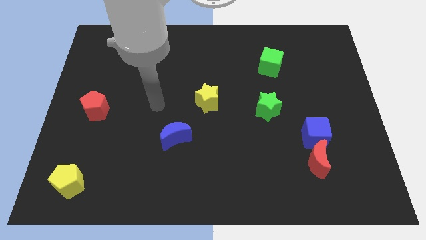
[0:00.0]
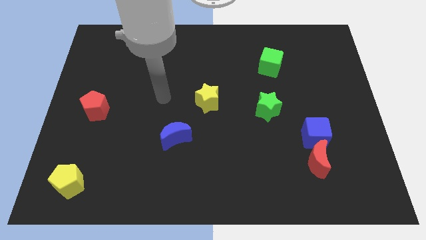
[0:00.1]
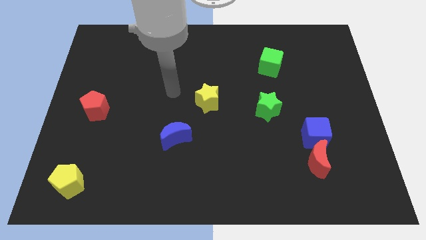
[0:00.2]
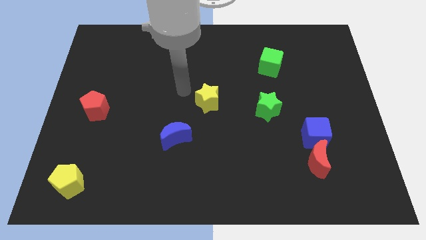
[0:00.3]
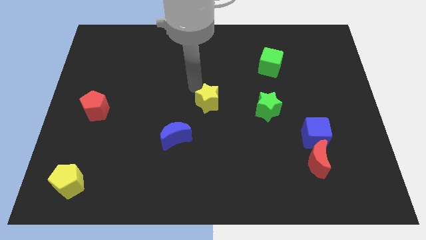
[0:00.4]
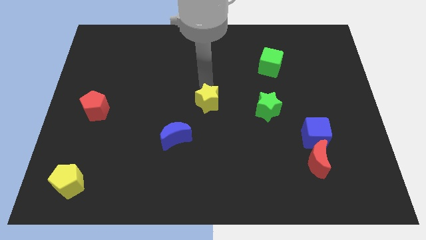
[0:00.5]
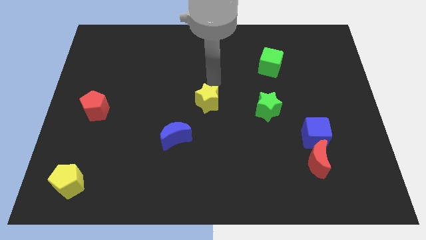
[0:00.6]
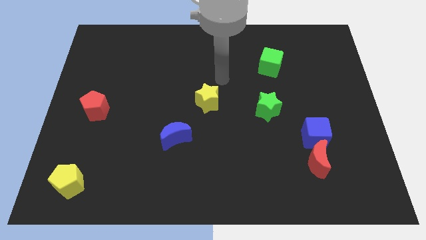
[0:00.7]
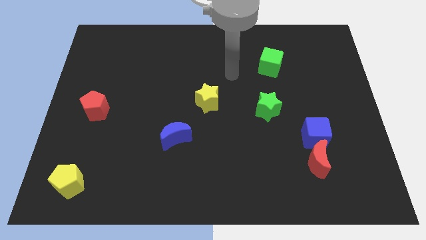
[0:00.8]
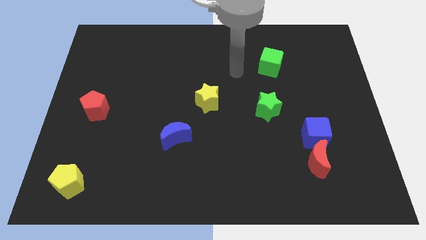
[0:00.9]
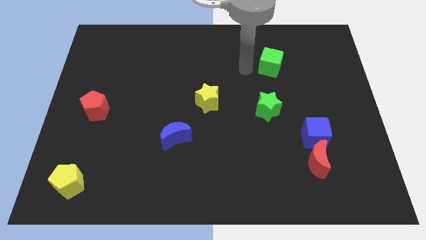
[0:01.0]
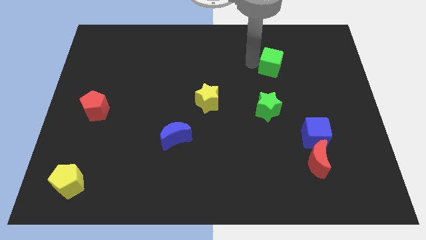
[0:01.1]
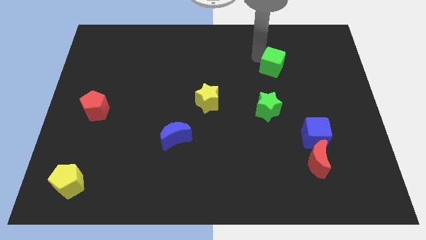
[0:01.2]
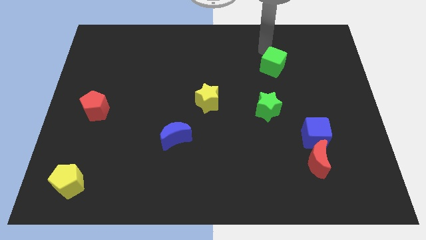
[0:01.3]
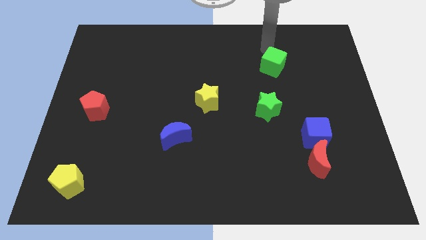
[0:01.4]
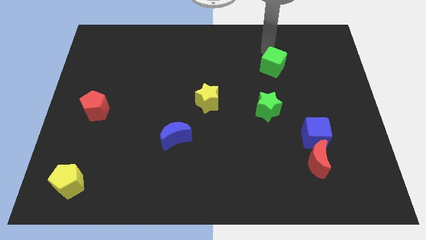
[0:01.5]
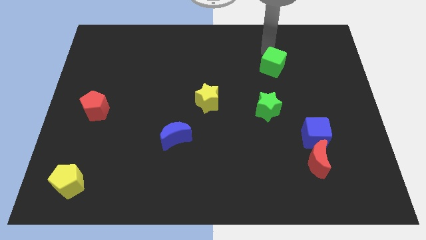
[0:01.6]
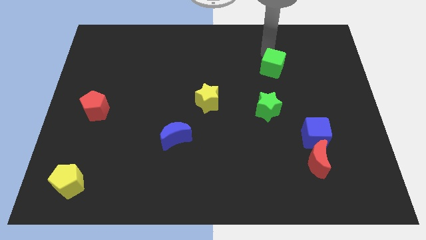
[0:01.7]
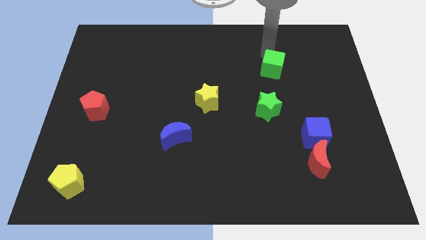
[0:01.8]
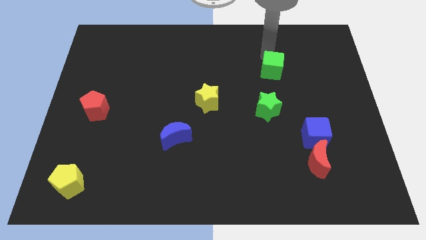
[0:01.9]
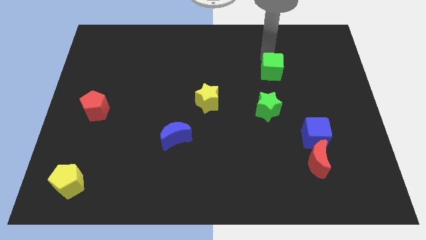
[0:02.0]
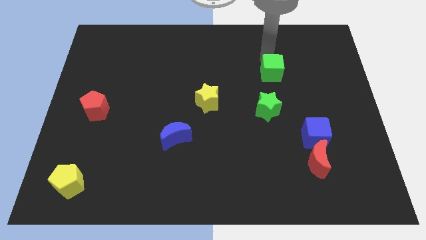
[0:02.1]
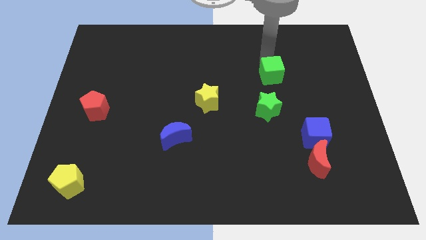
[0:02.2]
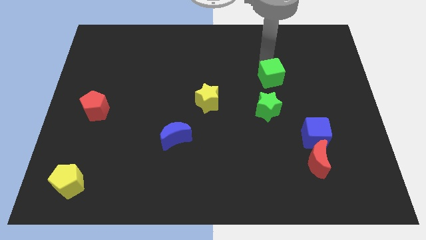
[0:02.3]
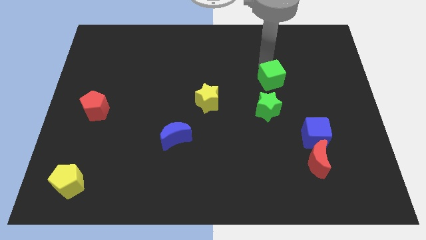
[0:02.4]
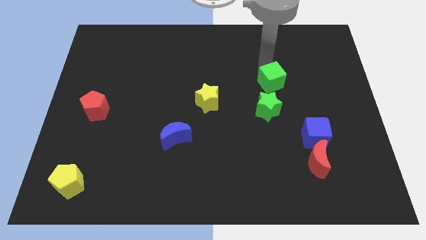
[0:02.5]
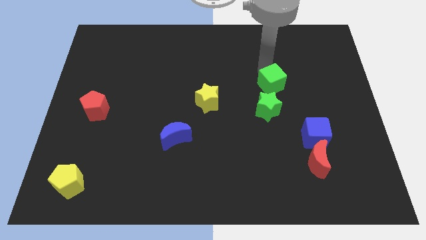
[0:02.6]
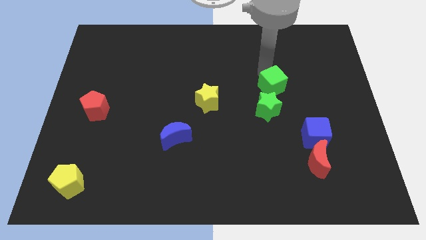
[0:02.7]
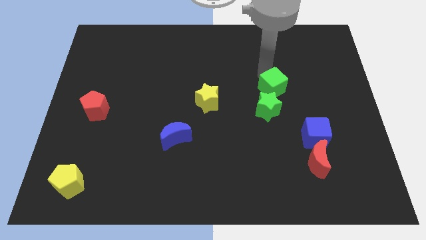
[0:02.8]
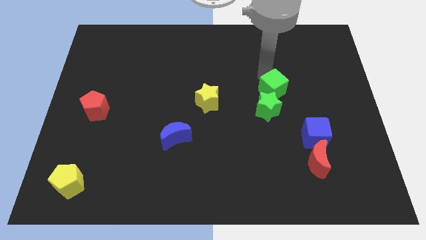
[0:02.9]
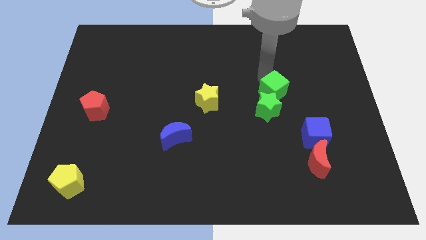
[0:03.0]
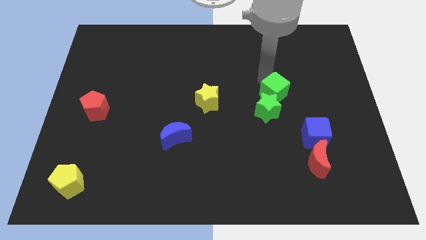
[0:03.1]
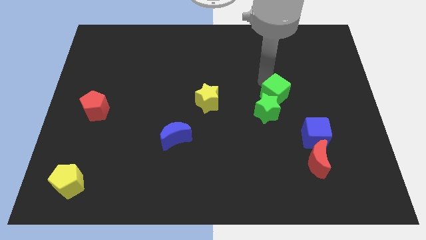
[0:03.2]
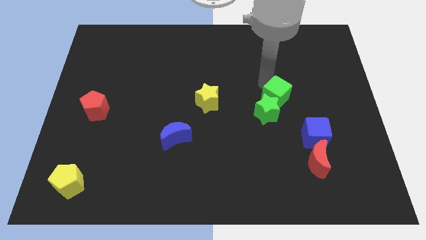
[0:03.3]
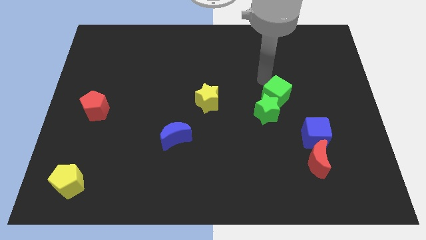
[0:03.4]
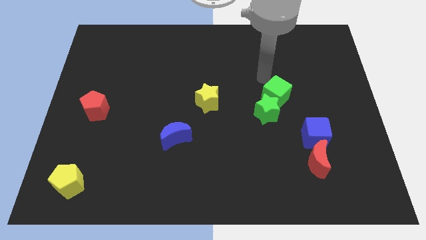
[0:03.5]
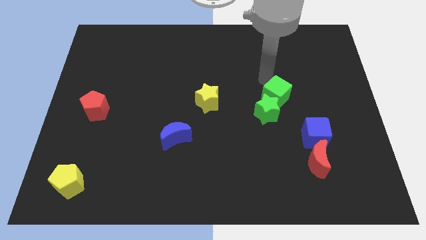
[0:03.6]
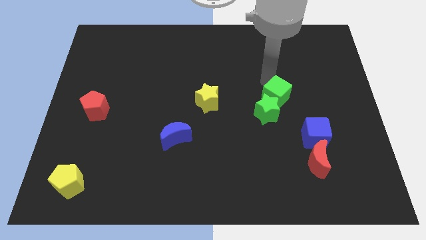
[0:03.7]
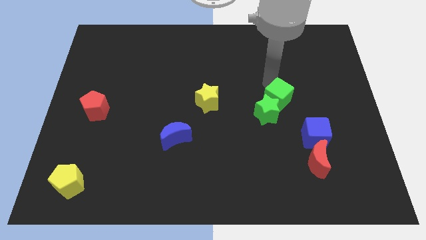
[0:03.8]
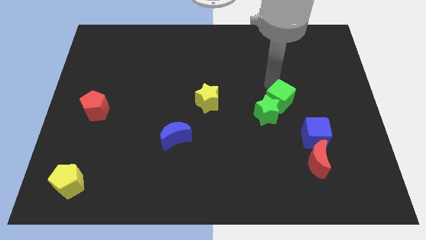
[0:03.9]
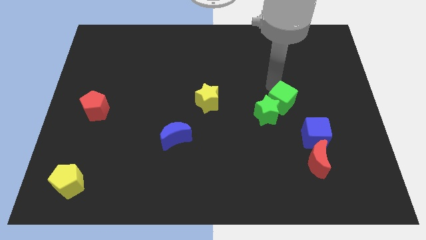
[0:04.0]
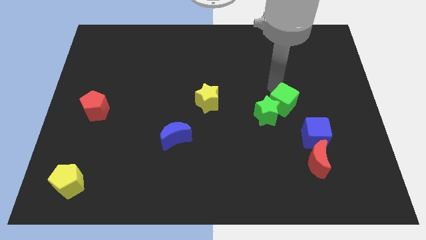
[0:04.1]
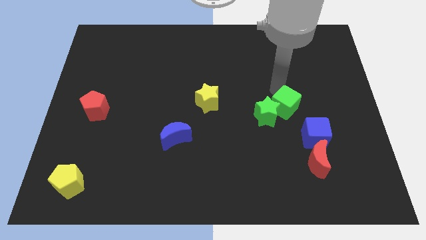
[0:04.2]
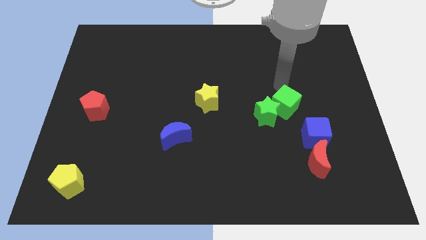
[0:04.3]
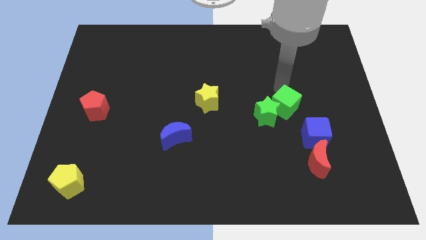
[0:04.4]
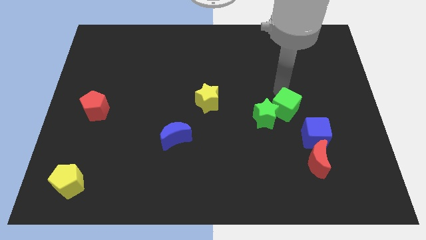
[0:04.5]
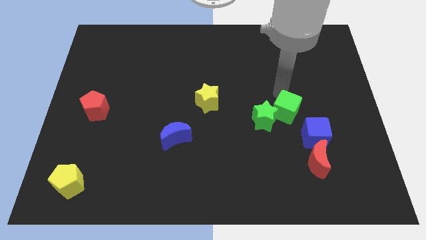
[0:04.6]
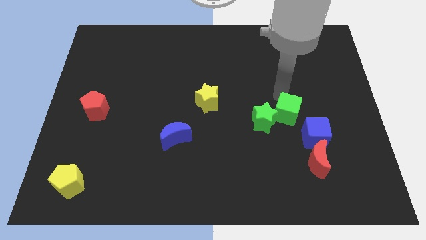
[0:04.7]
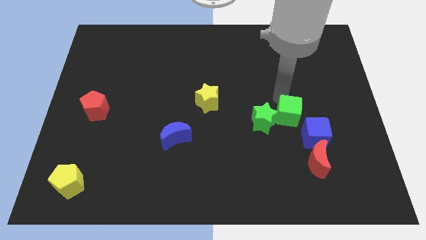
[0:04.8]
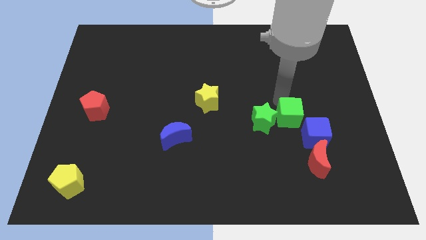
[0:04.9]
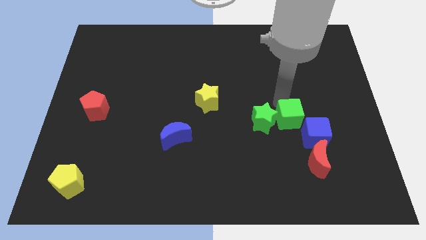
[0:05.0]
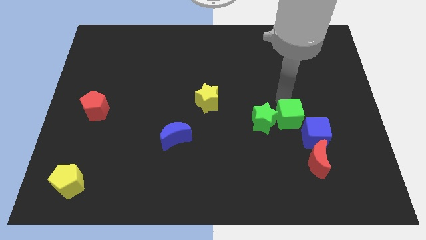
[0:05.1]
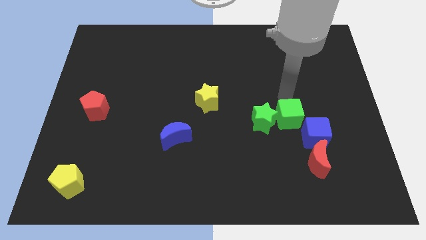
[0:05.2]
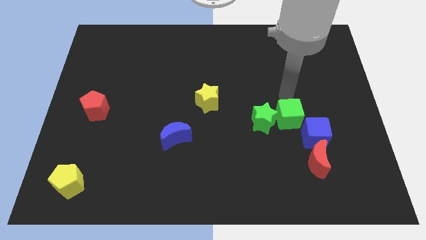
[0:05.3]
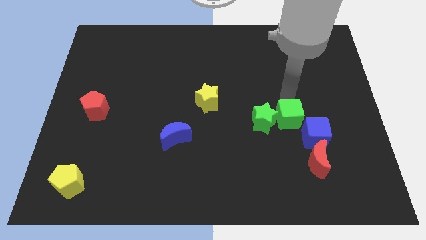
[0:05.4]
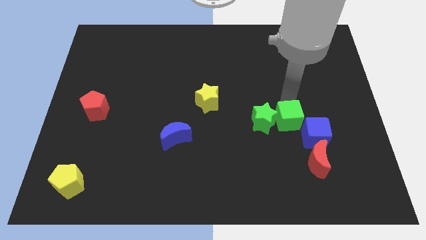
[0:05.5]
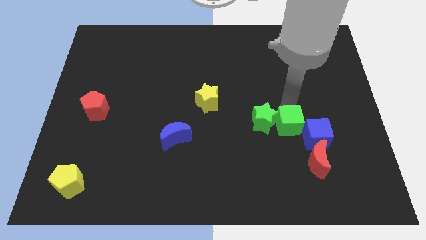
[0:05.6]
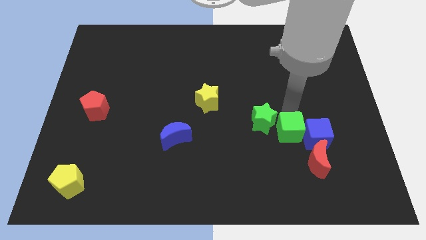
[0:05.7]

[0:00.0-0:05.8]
slide the green cube downwards

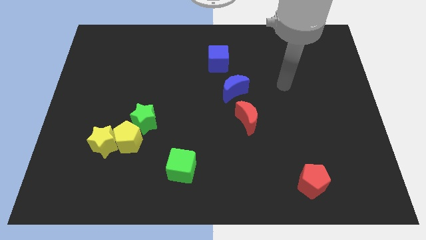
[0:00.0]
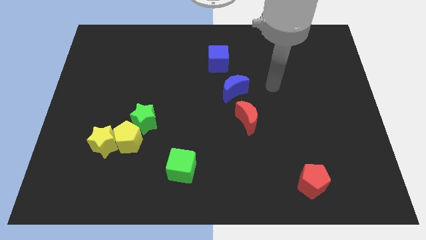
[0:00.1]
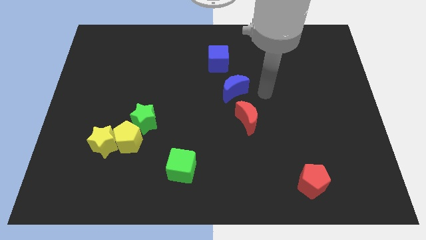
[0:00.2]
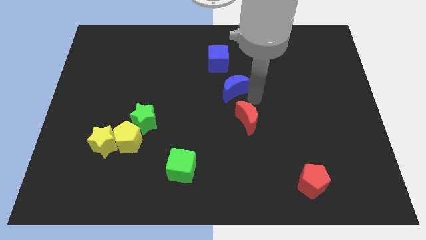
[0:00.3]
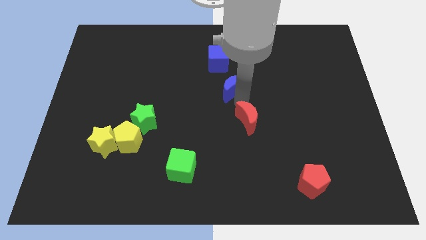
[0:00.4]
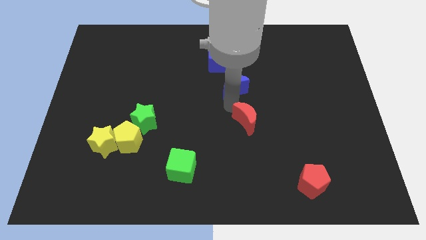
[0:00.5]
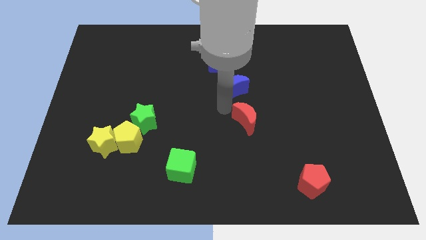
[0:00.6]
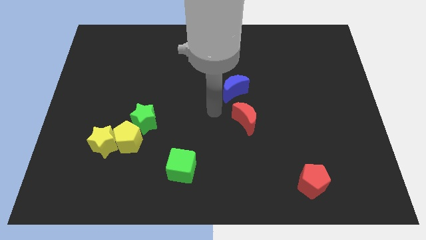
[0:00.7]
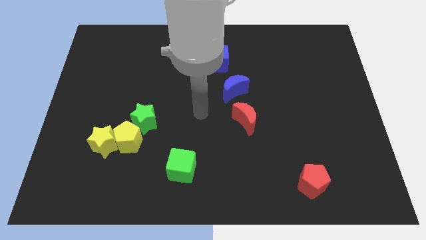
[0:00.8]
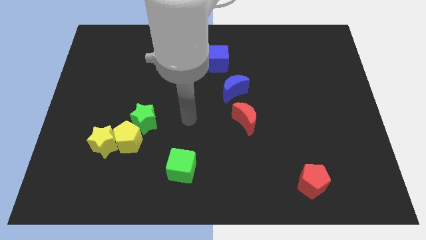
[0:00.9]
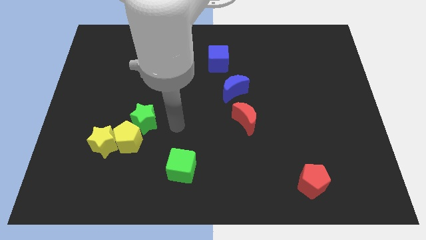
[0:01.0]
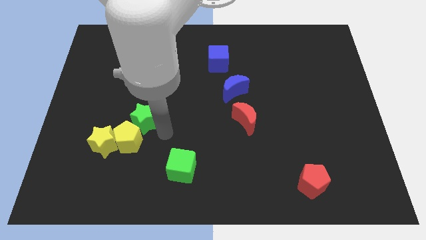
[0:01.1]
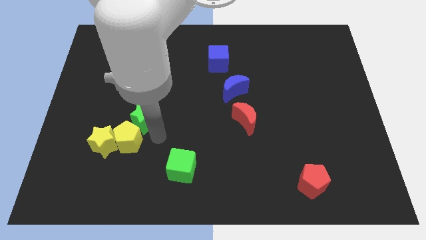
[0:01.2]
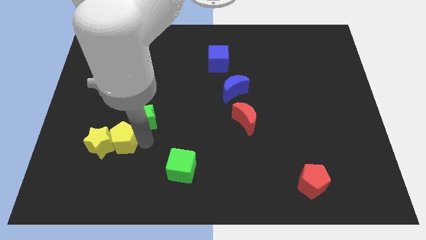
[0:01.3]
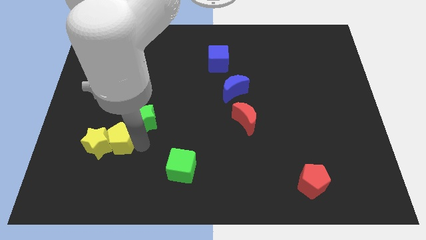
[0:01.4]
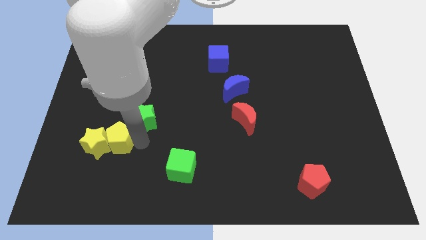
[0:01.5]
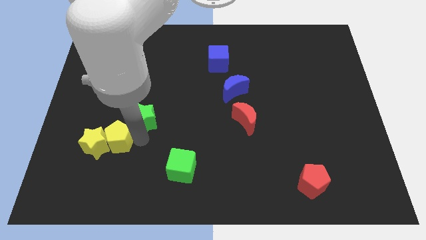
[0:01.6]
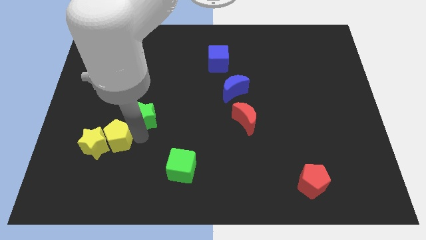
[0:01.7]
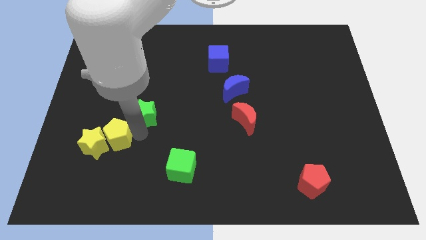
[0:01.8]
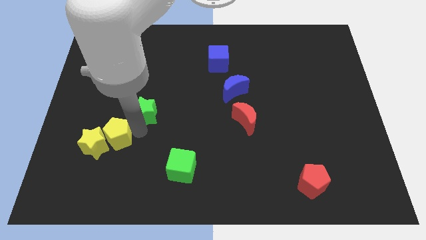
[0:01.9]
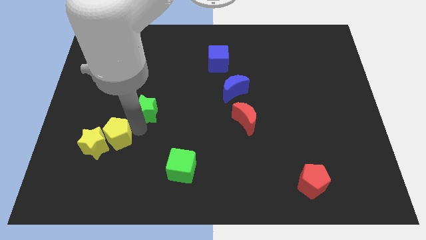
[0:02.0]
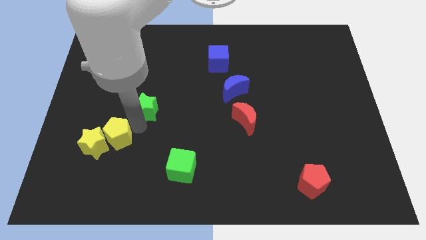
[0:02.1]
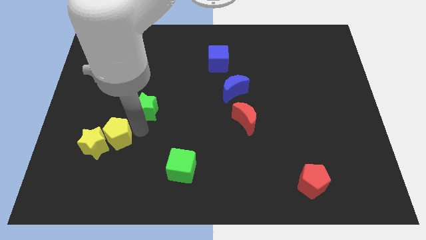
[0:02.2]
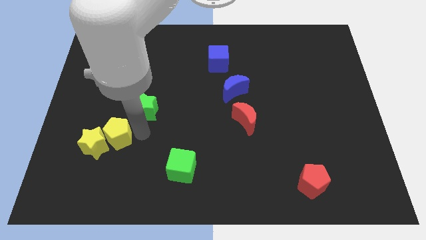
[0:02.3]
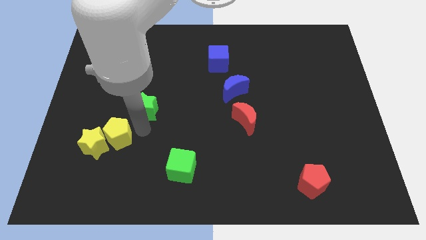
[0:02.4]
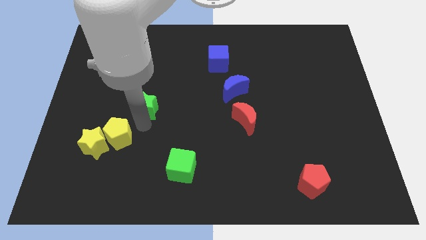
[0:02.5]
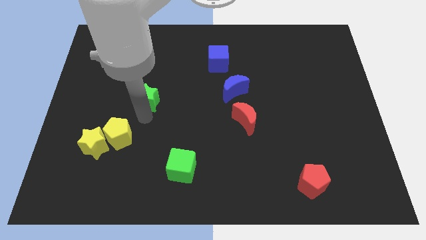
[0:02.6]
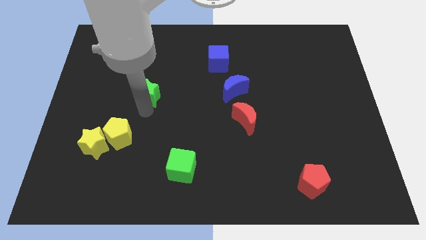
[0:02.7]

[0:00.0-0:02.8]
slightly slide the green star up
